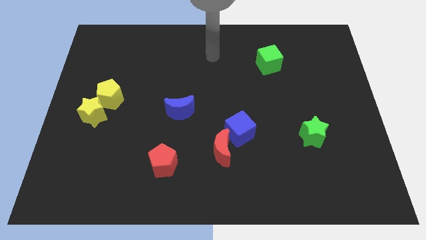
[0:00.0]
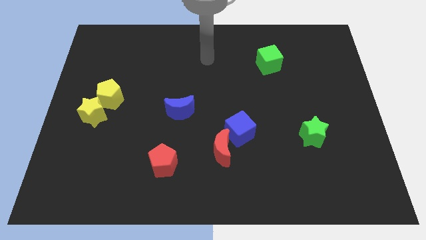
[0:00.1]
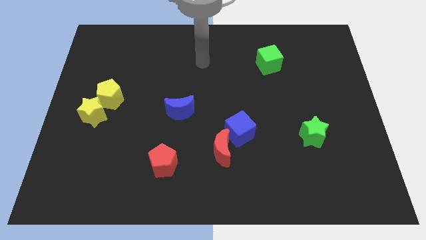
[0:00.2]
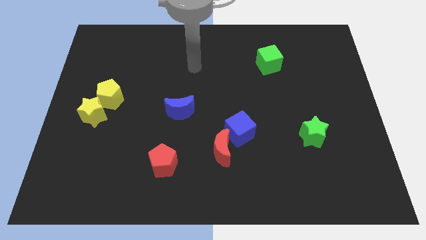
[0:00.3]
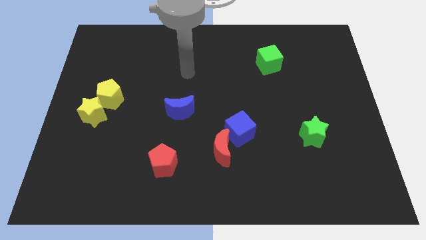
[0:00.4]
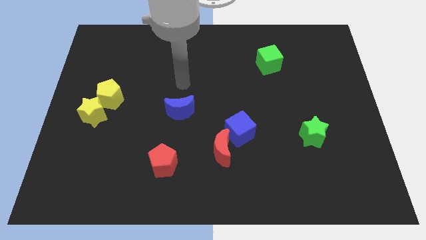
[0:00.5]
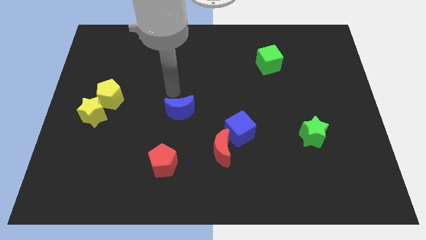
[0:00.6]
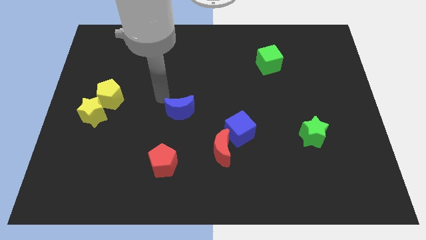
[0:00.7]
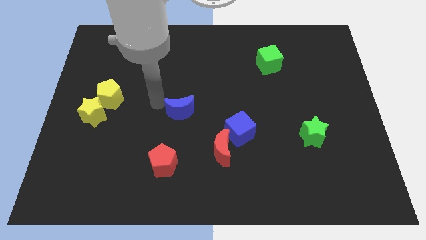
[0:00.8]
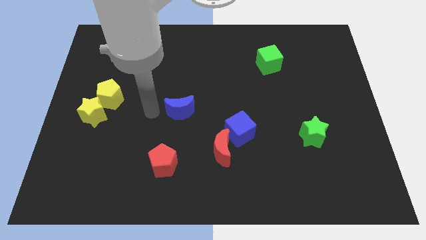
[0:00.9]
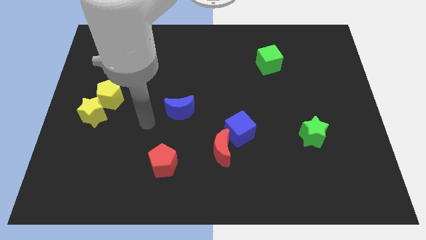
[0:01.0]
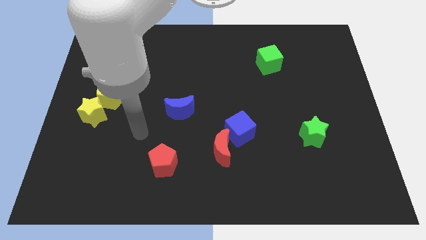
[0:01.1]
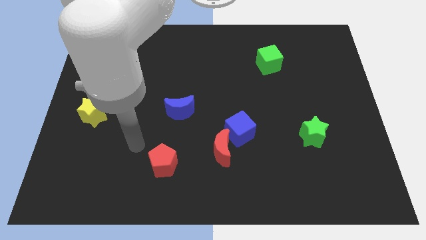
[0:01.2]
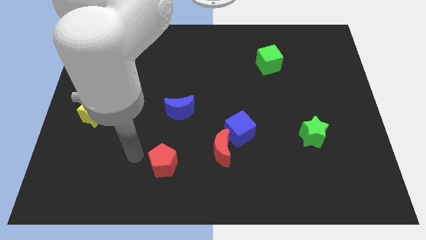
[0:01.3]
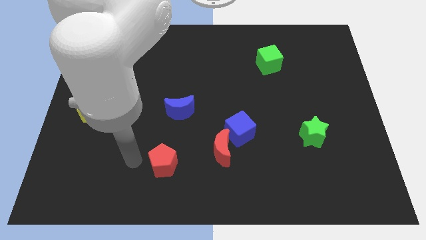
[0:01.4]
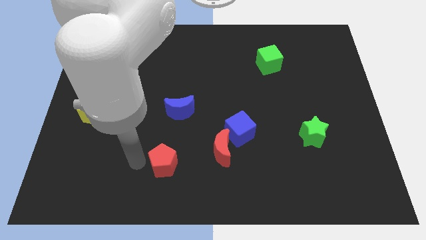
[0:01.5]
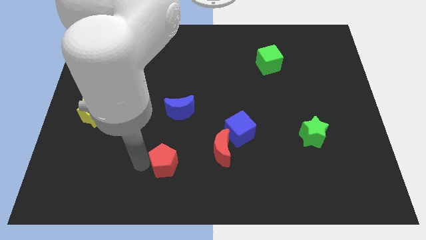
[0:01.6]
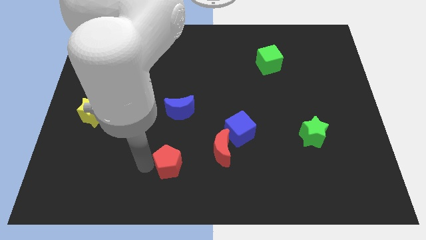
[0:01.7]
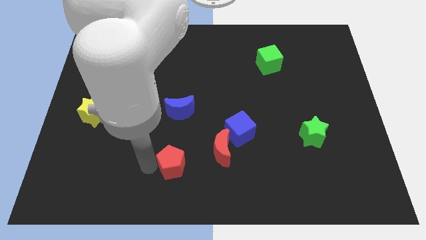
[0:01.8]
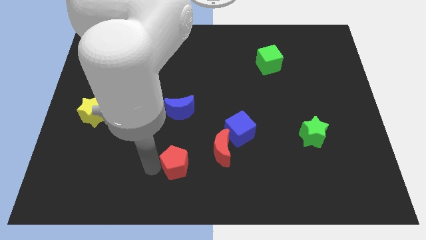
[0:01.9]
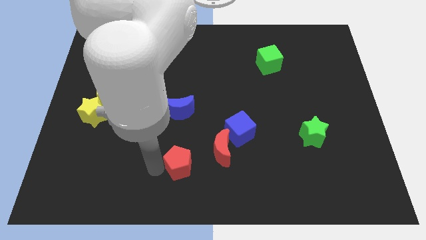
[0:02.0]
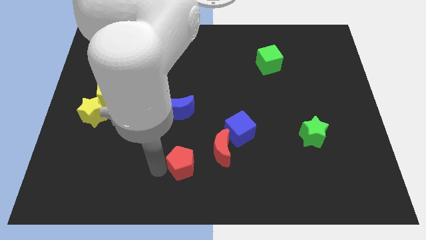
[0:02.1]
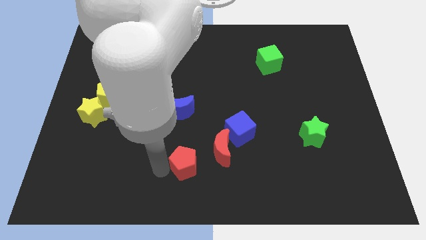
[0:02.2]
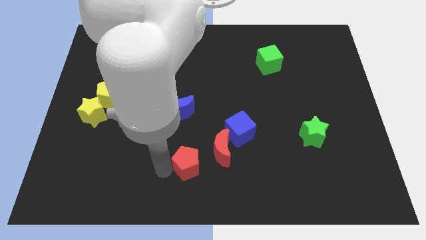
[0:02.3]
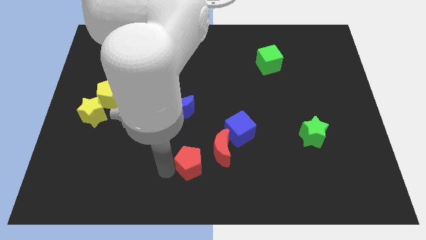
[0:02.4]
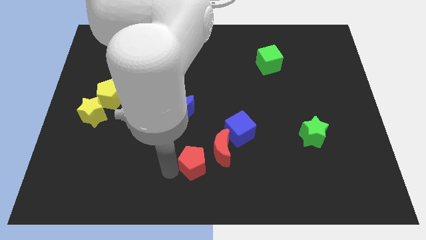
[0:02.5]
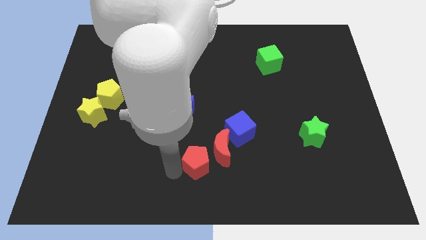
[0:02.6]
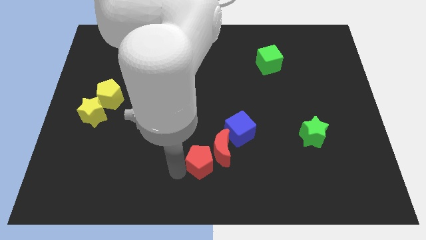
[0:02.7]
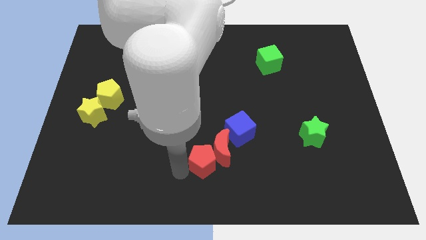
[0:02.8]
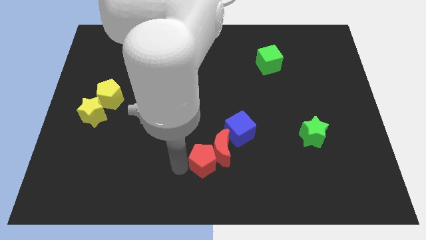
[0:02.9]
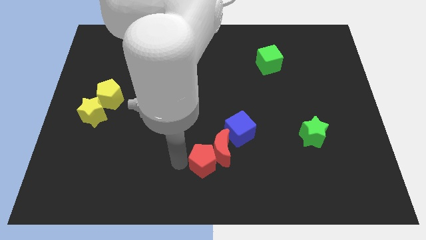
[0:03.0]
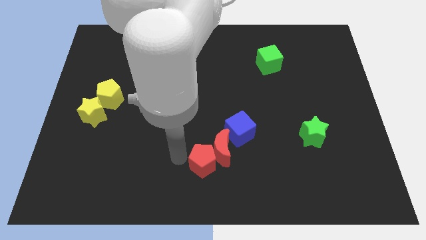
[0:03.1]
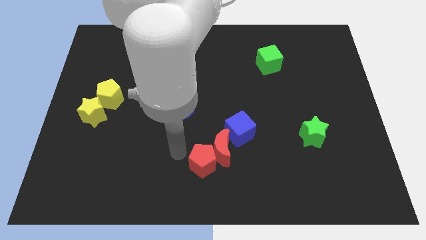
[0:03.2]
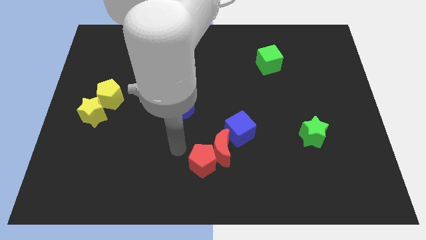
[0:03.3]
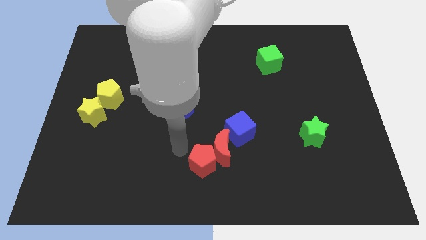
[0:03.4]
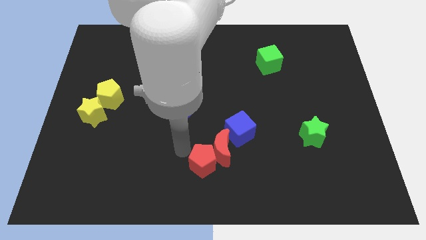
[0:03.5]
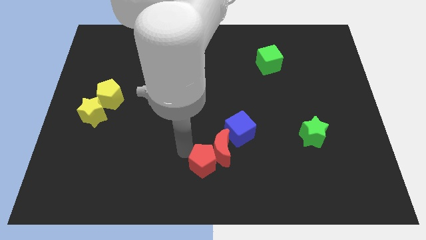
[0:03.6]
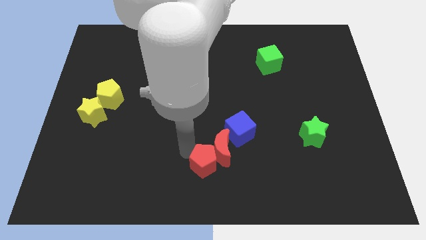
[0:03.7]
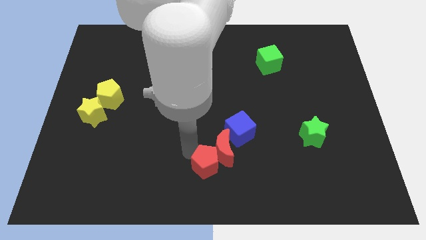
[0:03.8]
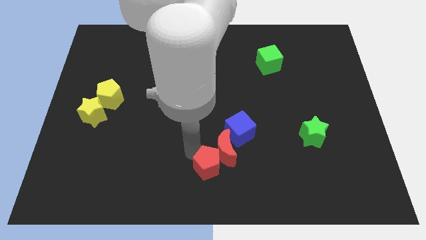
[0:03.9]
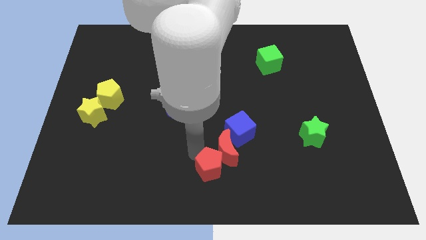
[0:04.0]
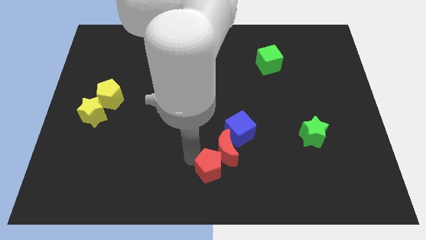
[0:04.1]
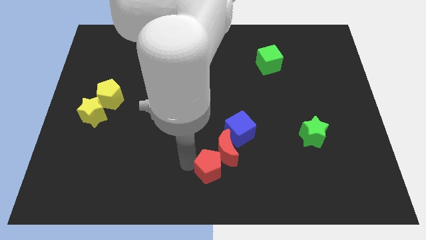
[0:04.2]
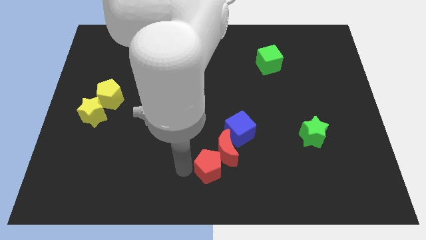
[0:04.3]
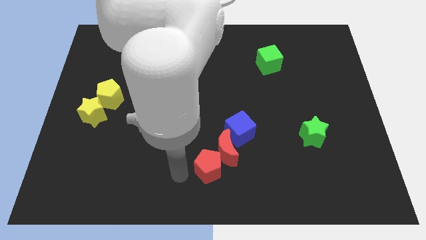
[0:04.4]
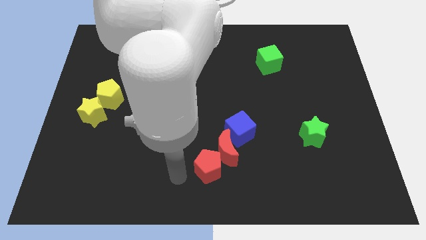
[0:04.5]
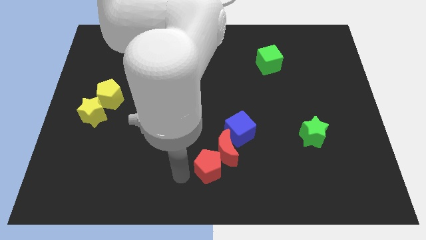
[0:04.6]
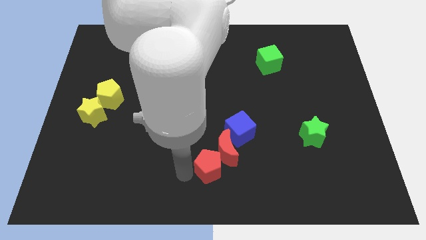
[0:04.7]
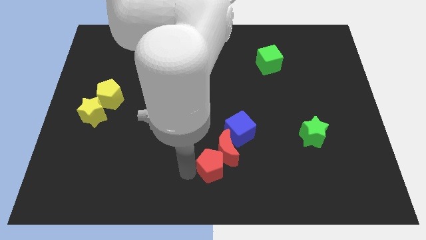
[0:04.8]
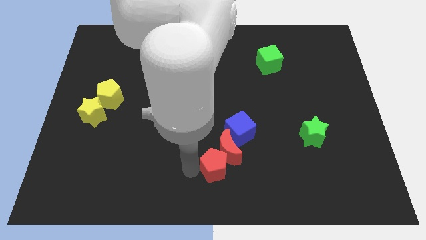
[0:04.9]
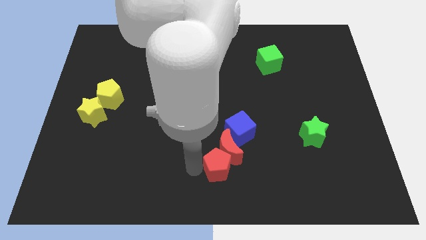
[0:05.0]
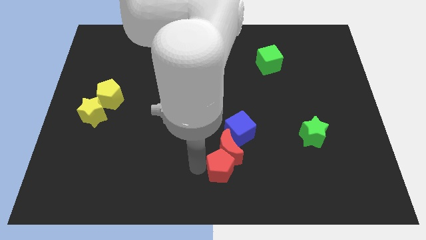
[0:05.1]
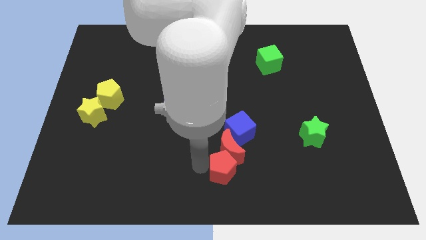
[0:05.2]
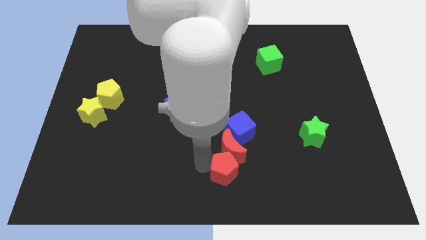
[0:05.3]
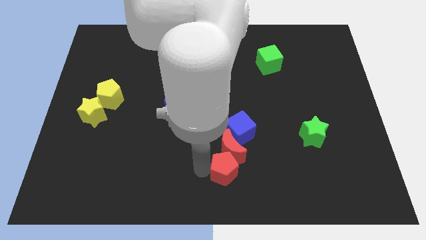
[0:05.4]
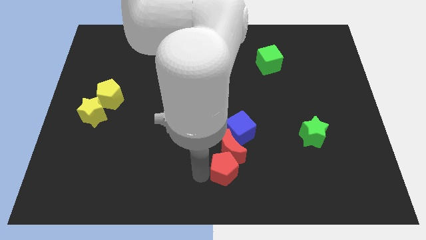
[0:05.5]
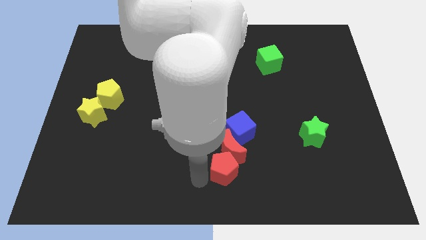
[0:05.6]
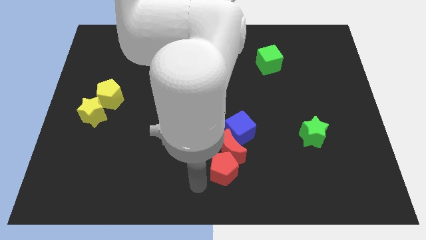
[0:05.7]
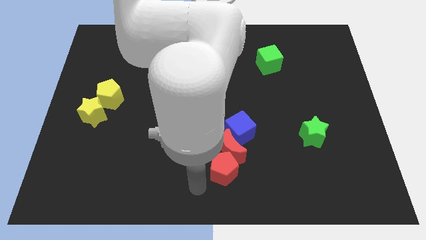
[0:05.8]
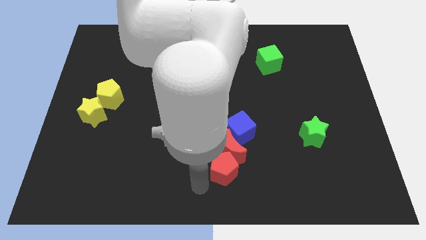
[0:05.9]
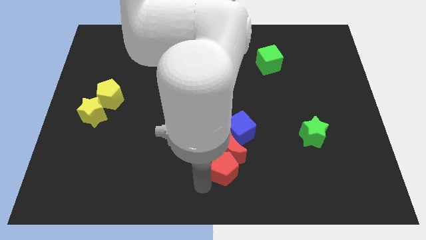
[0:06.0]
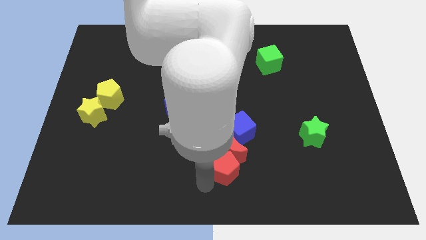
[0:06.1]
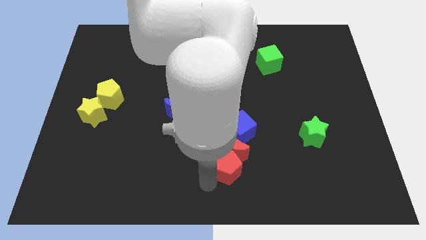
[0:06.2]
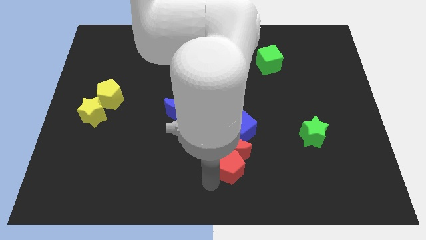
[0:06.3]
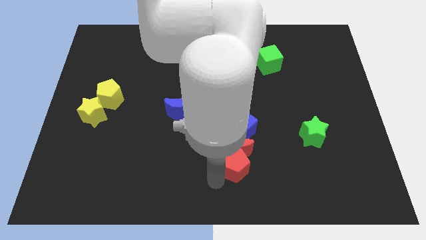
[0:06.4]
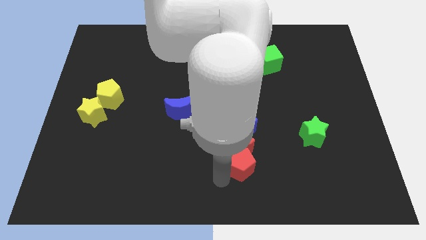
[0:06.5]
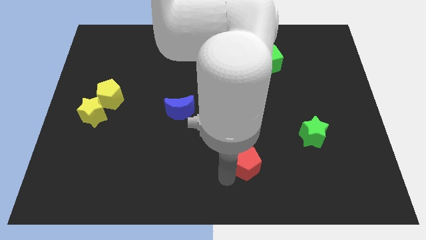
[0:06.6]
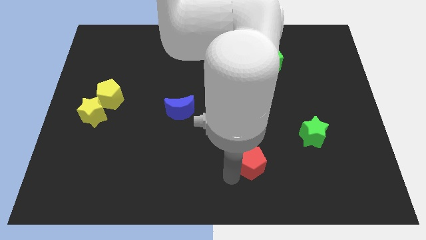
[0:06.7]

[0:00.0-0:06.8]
slide the red pentagon to the right of the red moon

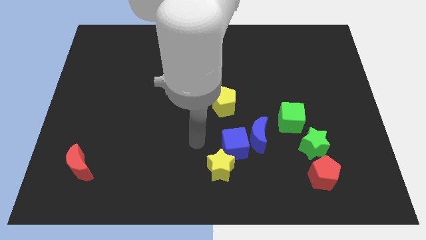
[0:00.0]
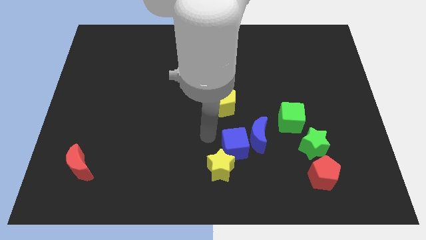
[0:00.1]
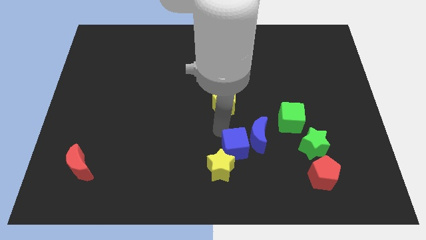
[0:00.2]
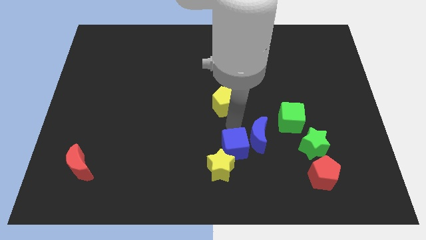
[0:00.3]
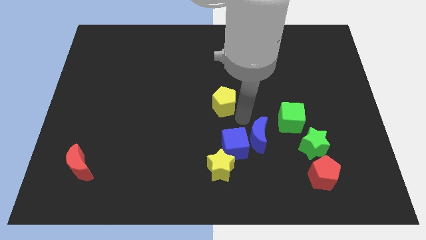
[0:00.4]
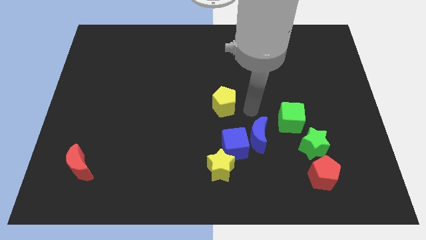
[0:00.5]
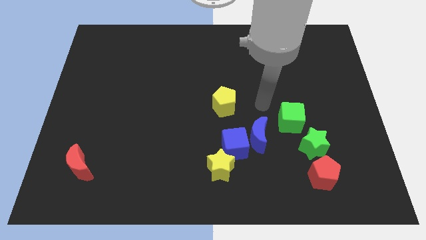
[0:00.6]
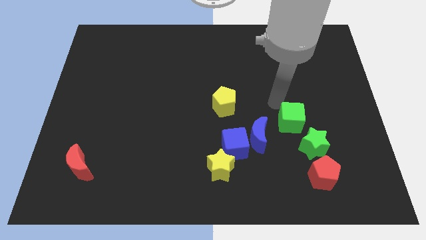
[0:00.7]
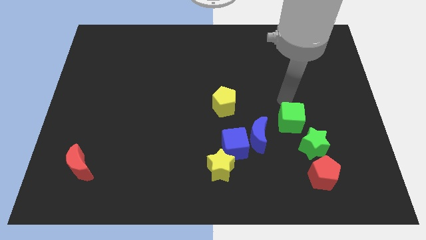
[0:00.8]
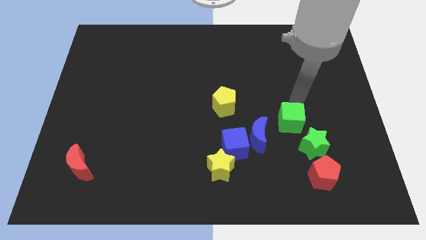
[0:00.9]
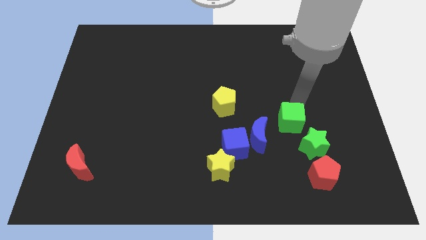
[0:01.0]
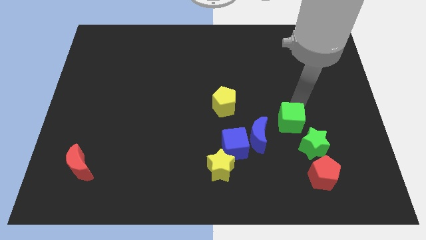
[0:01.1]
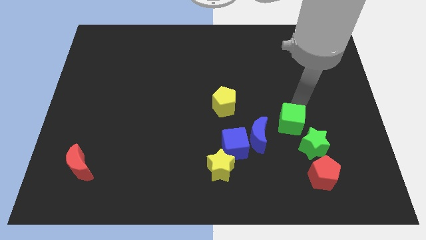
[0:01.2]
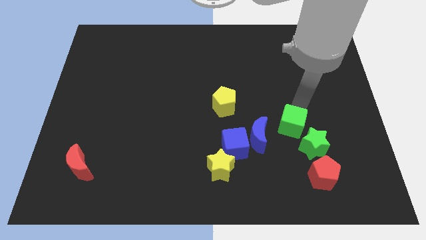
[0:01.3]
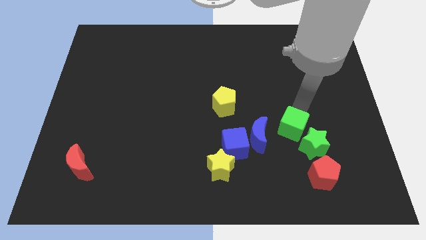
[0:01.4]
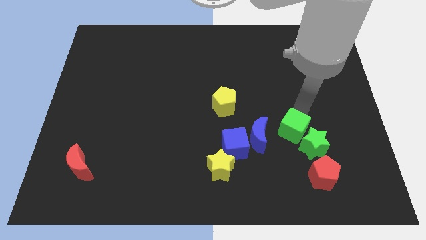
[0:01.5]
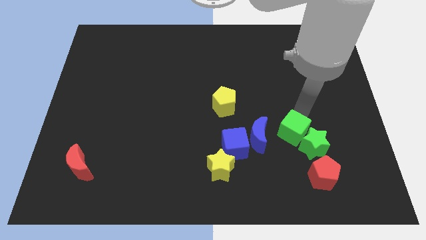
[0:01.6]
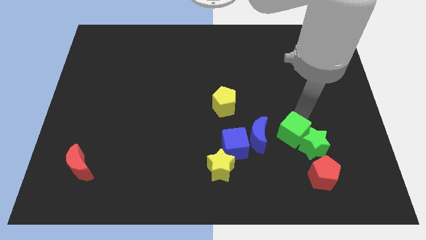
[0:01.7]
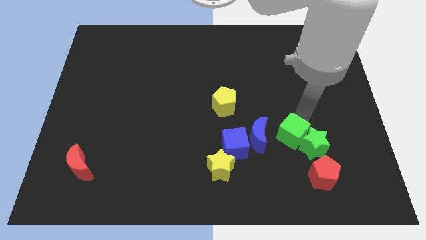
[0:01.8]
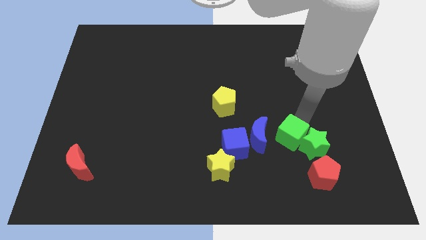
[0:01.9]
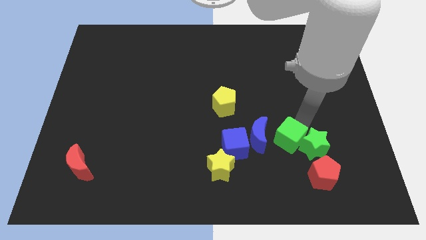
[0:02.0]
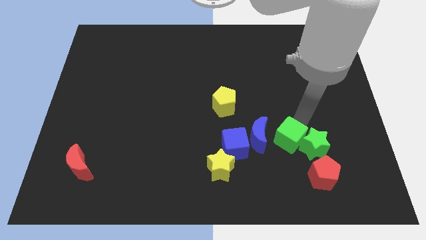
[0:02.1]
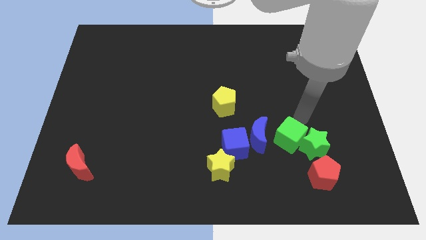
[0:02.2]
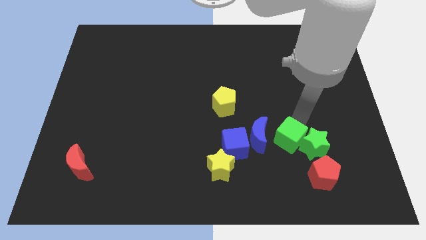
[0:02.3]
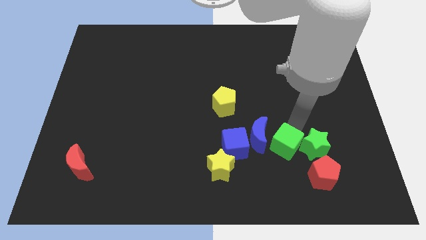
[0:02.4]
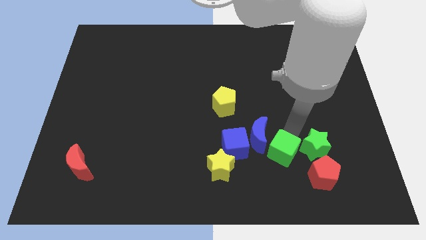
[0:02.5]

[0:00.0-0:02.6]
move the green cube just right of the yellow star
